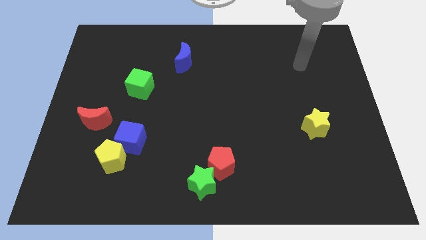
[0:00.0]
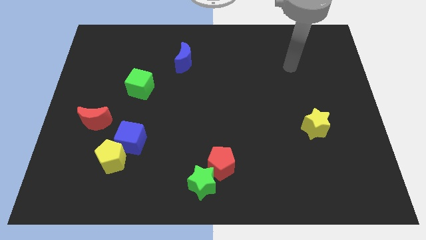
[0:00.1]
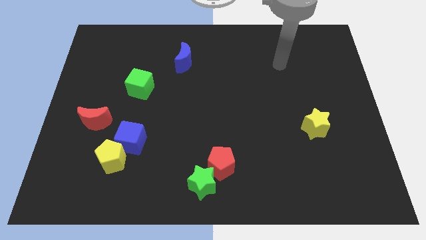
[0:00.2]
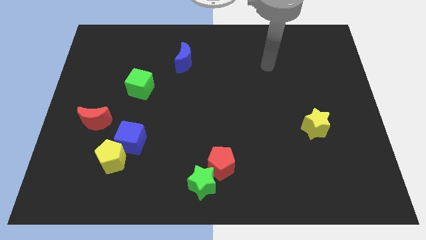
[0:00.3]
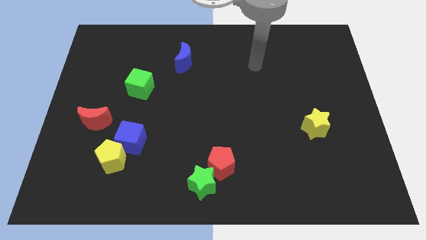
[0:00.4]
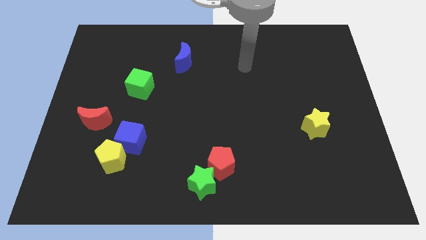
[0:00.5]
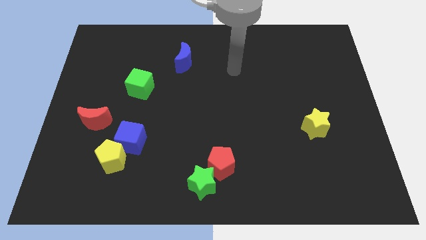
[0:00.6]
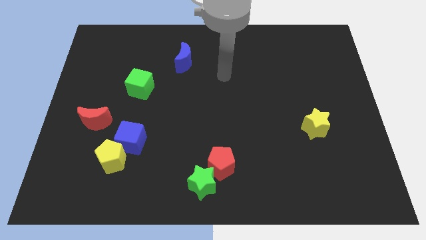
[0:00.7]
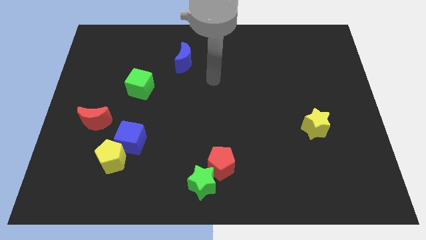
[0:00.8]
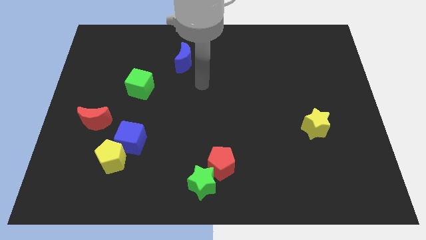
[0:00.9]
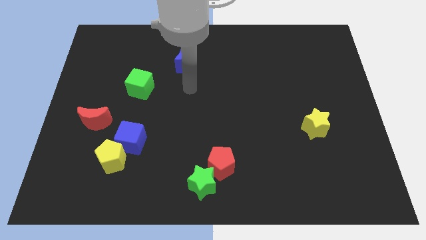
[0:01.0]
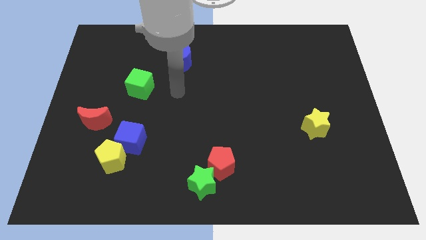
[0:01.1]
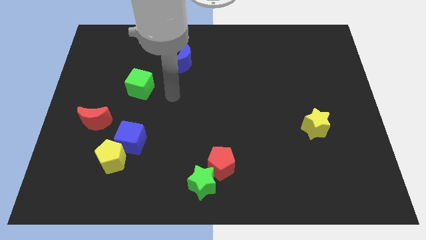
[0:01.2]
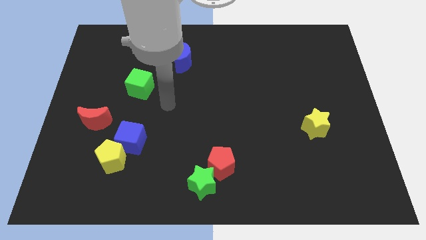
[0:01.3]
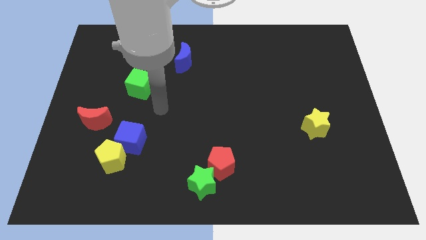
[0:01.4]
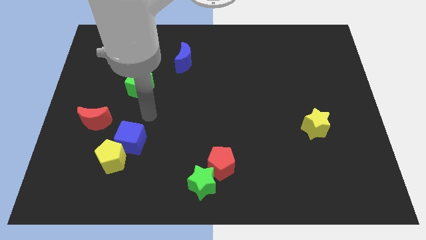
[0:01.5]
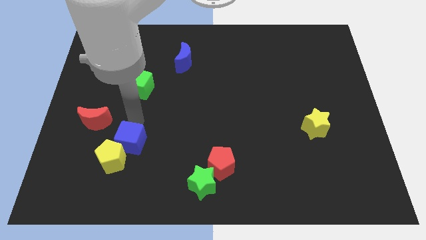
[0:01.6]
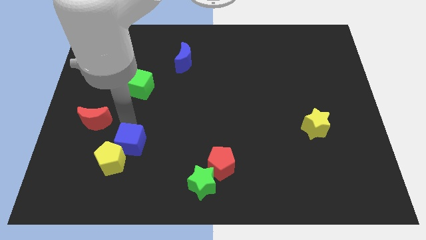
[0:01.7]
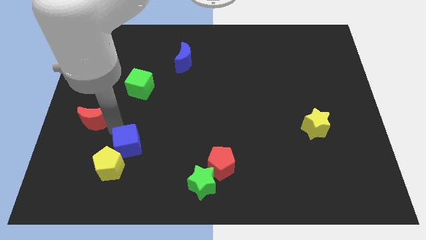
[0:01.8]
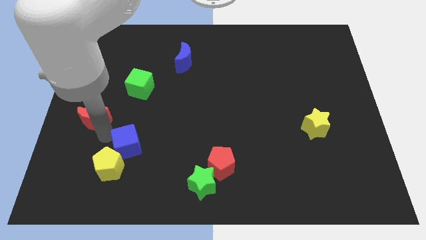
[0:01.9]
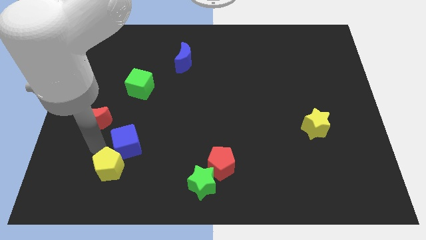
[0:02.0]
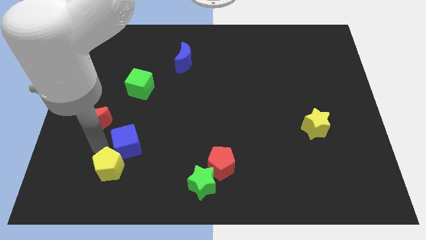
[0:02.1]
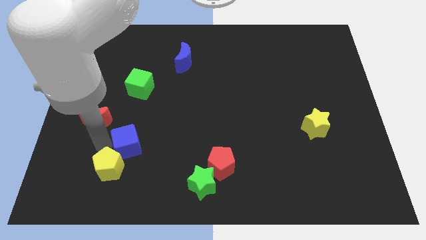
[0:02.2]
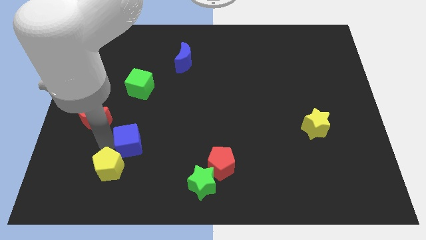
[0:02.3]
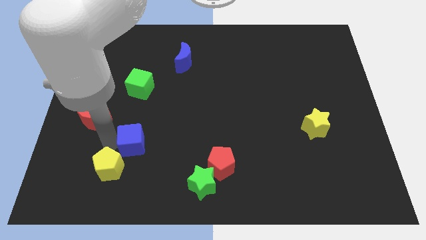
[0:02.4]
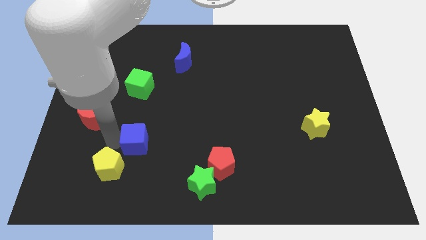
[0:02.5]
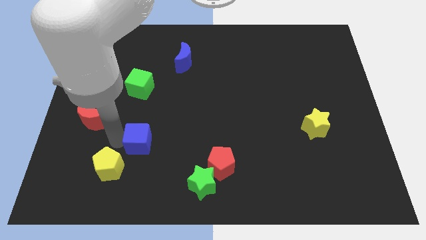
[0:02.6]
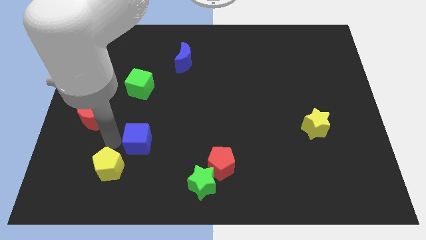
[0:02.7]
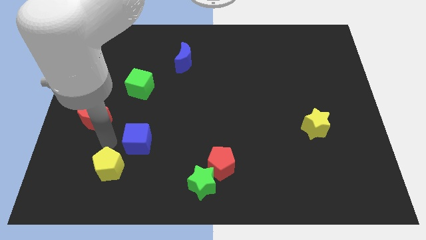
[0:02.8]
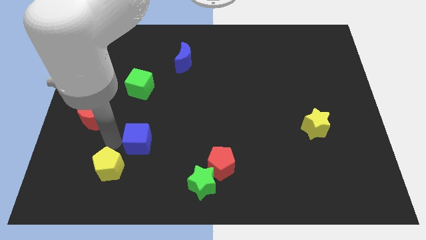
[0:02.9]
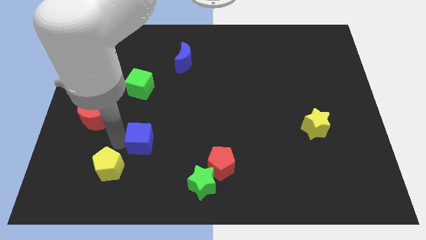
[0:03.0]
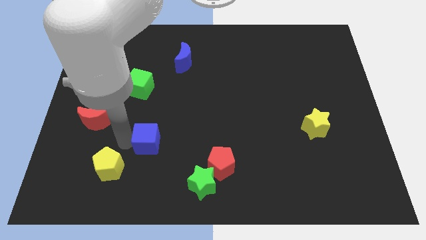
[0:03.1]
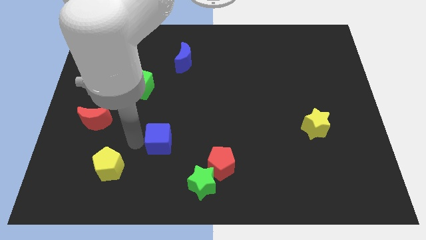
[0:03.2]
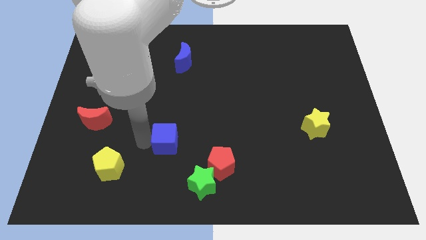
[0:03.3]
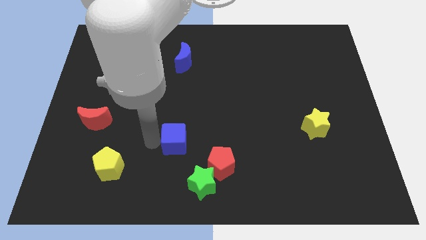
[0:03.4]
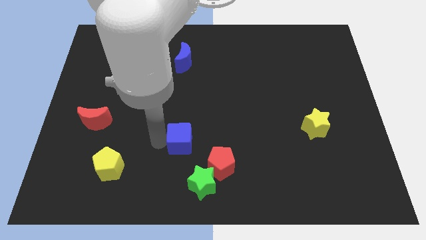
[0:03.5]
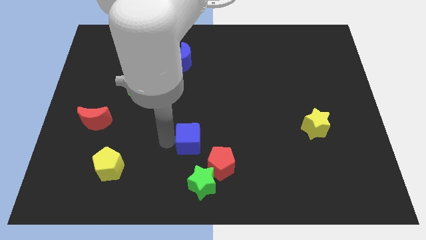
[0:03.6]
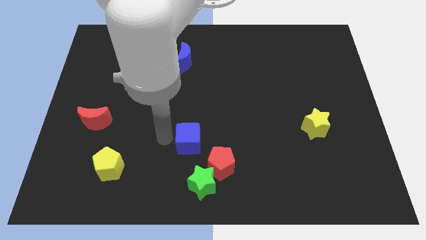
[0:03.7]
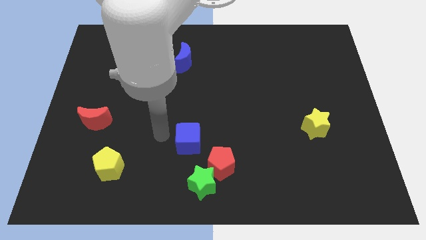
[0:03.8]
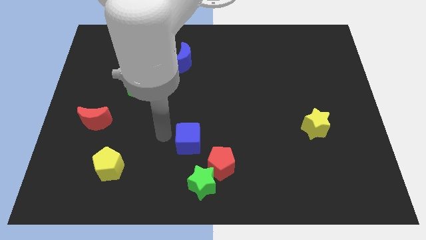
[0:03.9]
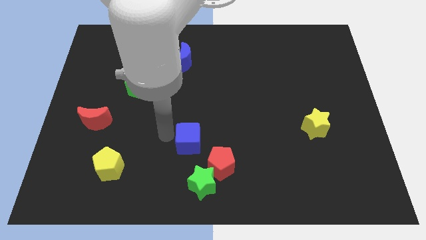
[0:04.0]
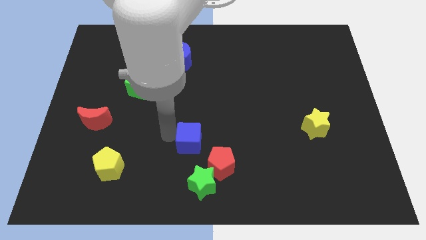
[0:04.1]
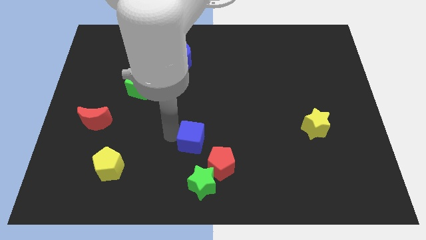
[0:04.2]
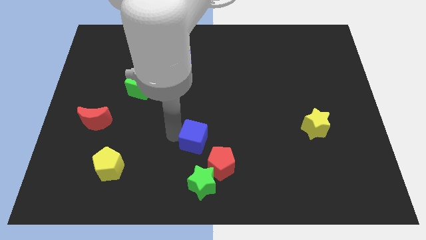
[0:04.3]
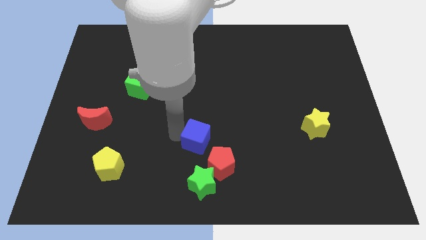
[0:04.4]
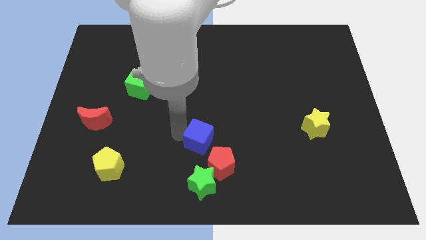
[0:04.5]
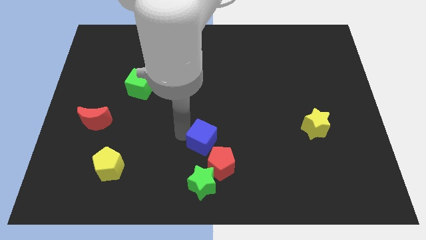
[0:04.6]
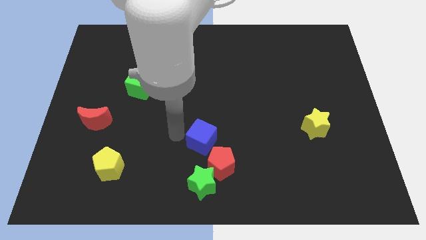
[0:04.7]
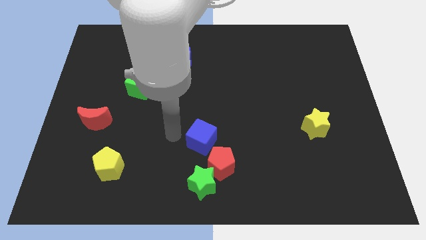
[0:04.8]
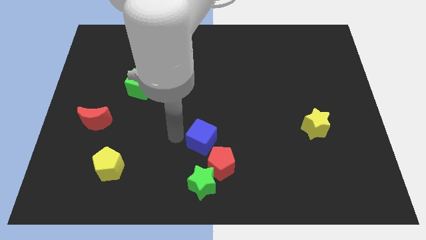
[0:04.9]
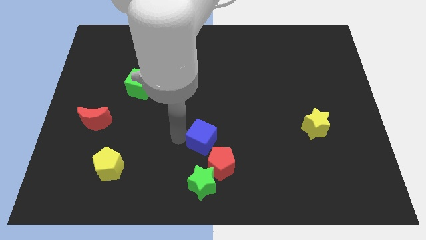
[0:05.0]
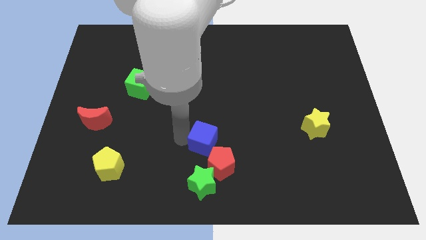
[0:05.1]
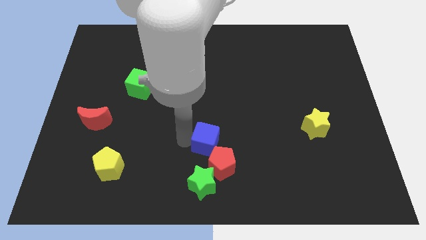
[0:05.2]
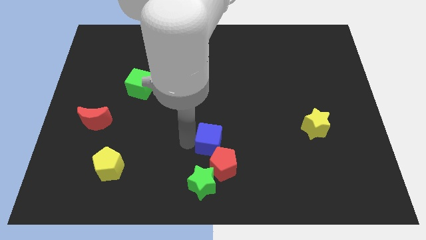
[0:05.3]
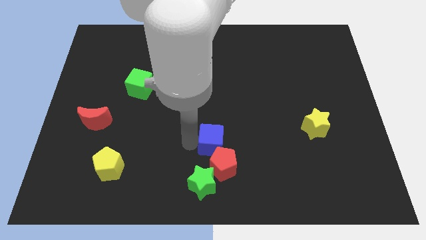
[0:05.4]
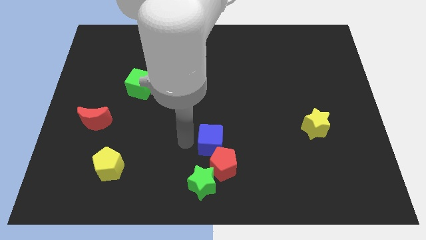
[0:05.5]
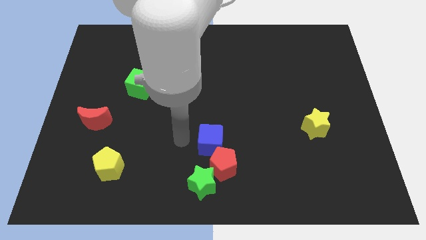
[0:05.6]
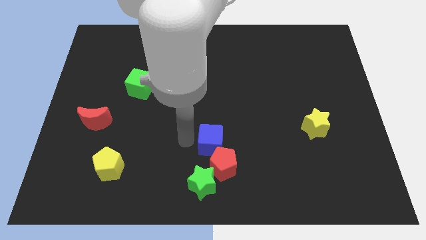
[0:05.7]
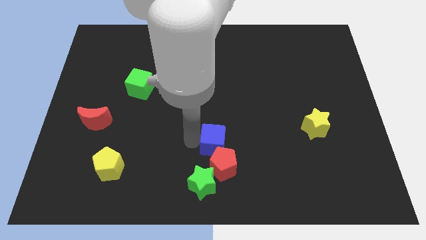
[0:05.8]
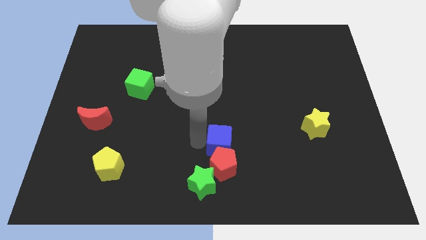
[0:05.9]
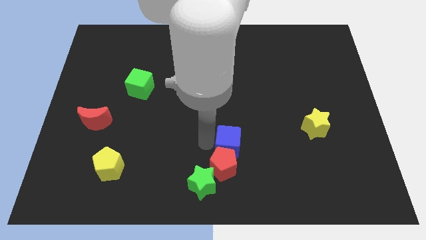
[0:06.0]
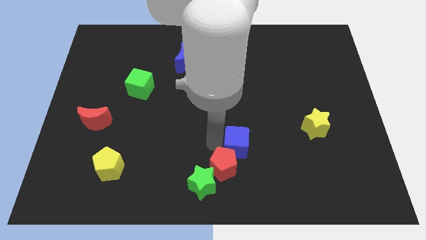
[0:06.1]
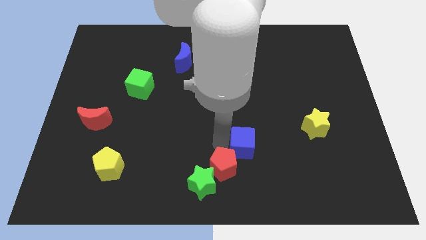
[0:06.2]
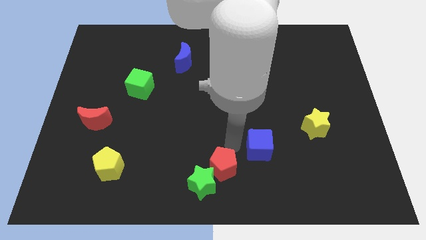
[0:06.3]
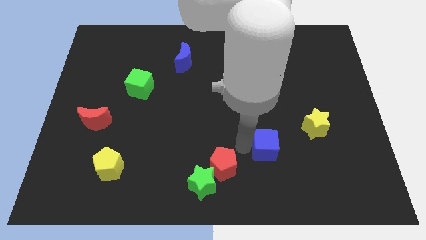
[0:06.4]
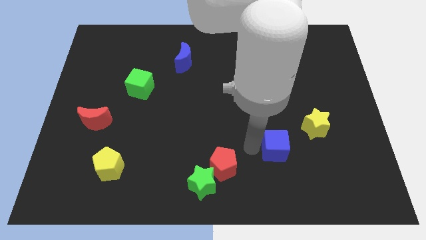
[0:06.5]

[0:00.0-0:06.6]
put the blue cube diagonally down and to the left of the yellow star

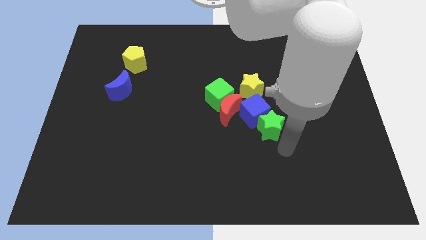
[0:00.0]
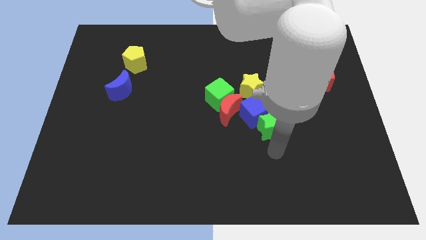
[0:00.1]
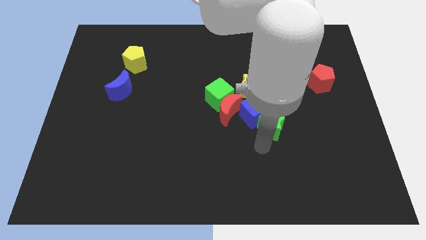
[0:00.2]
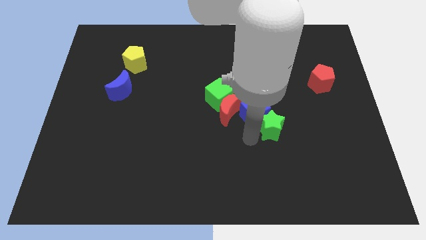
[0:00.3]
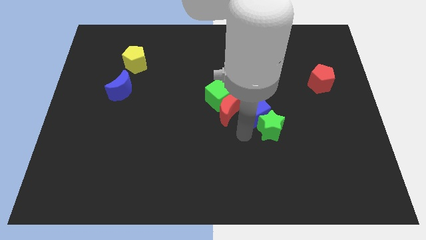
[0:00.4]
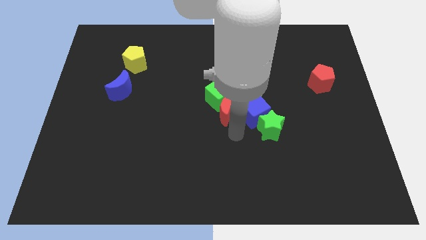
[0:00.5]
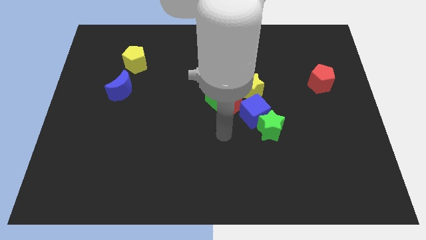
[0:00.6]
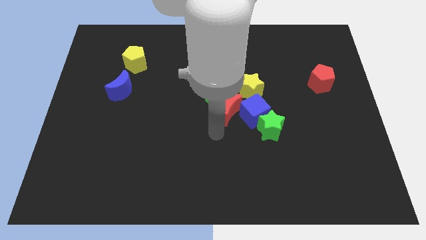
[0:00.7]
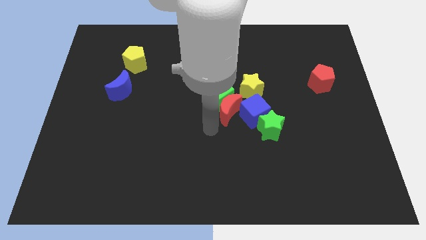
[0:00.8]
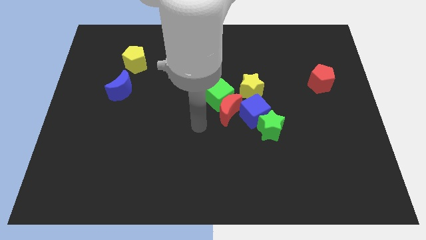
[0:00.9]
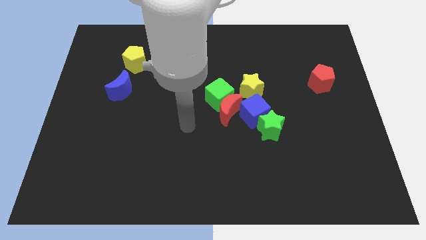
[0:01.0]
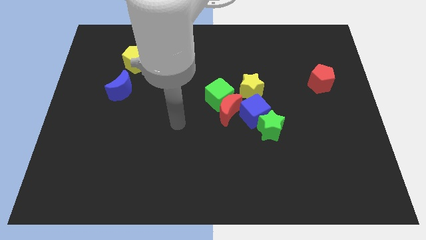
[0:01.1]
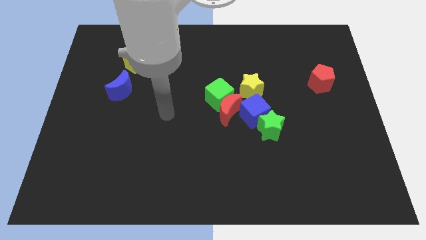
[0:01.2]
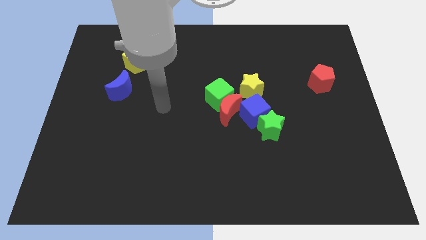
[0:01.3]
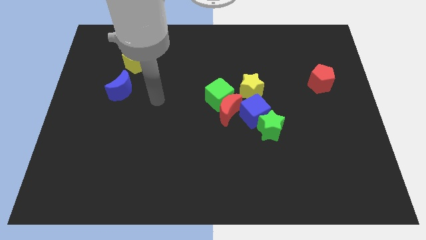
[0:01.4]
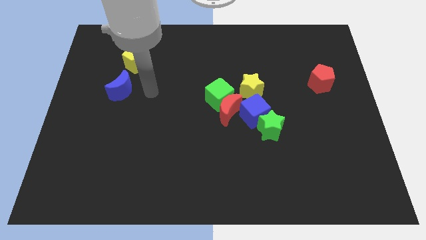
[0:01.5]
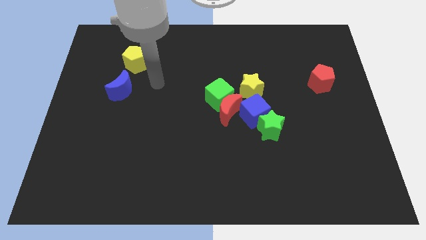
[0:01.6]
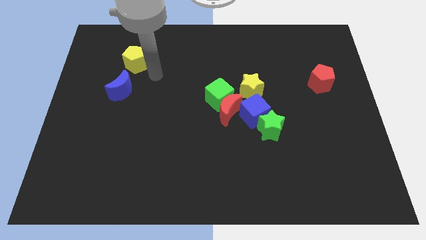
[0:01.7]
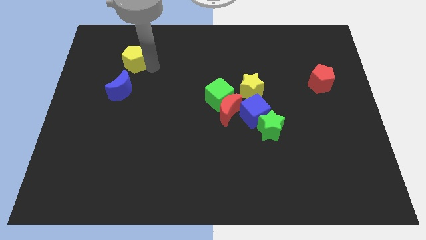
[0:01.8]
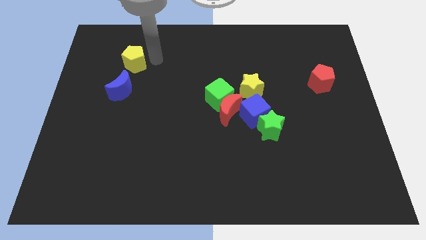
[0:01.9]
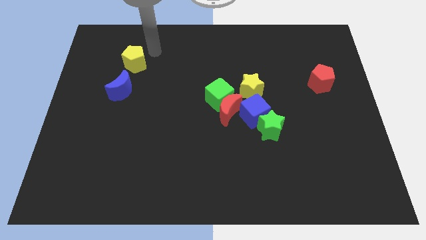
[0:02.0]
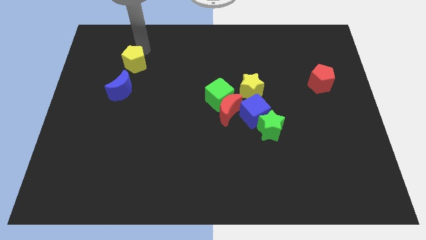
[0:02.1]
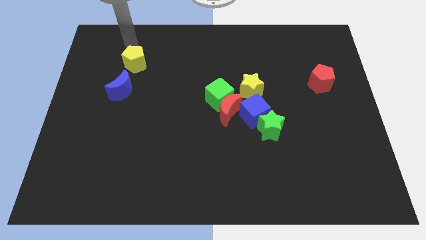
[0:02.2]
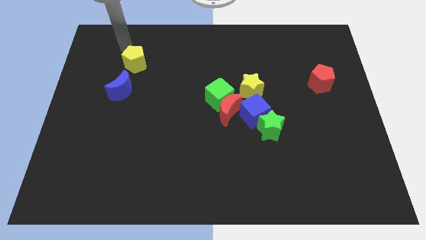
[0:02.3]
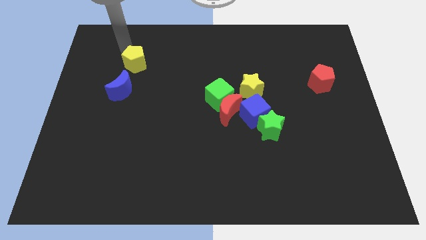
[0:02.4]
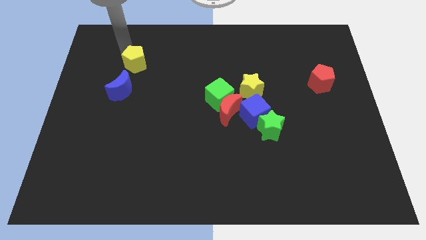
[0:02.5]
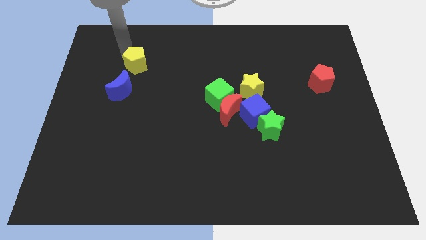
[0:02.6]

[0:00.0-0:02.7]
move the yellow pentagon to the top right of the blue moon
